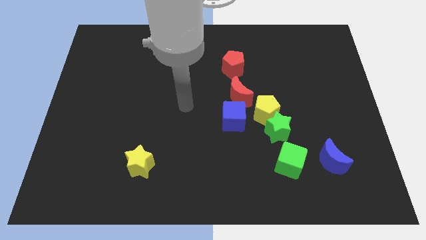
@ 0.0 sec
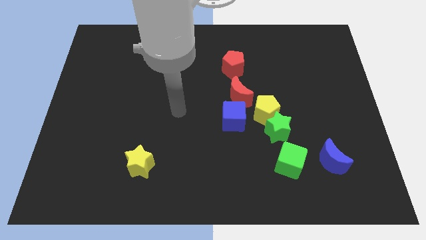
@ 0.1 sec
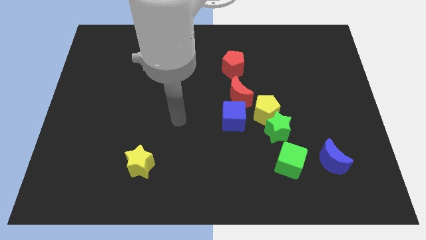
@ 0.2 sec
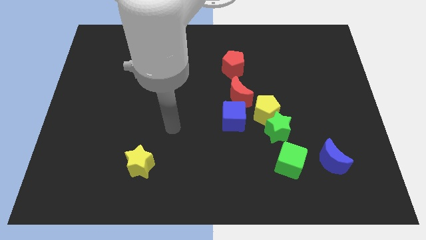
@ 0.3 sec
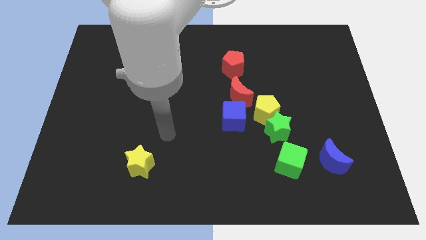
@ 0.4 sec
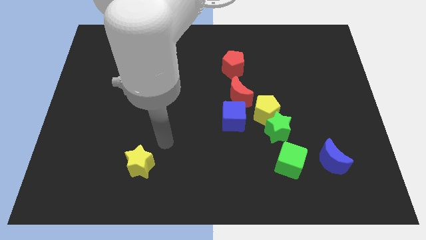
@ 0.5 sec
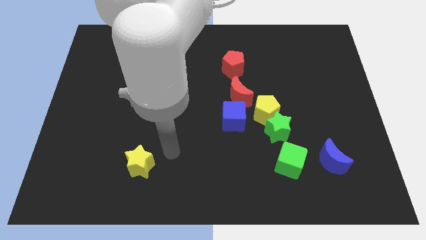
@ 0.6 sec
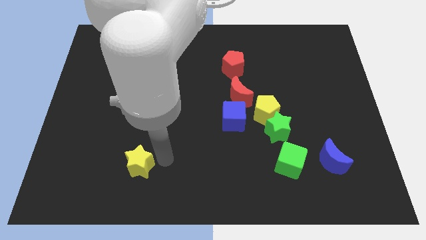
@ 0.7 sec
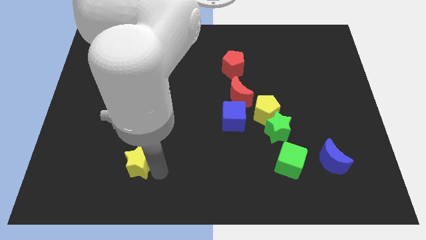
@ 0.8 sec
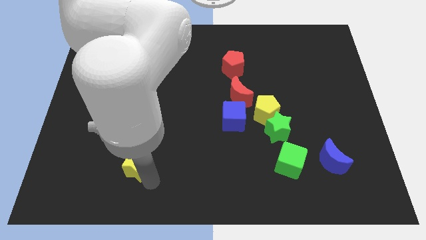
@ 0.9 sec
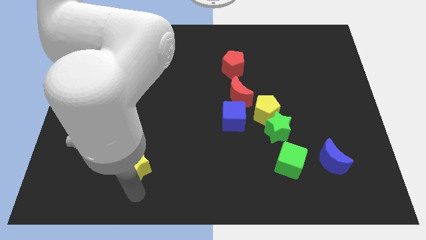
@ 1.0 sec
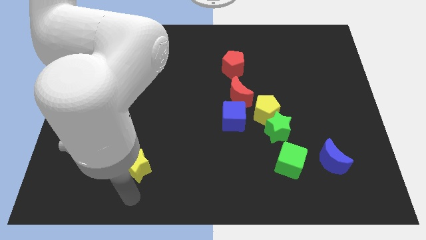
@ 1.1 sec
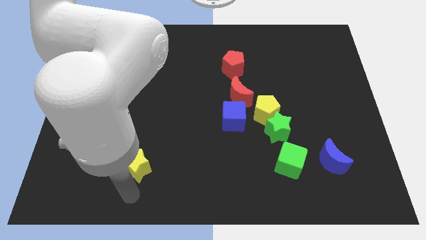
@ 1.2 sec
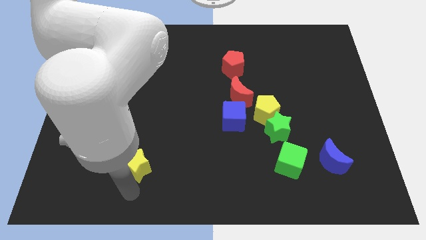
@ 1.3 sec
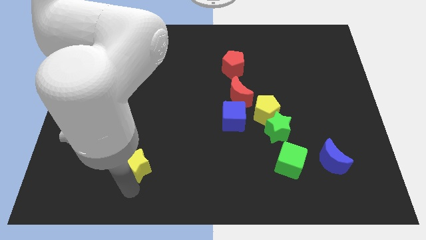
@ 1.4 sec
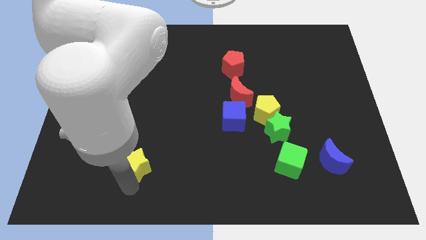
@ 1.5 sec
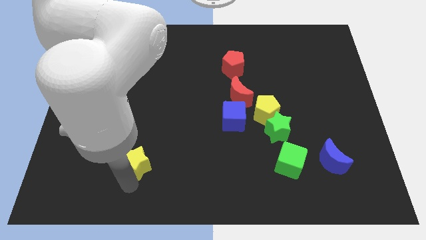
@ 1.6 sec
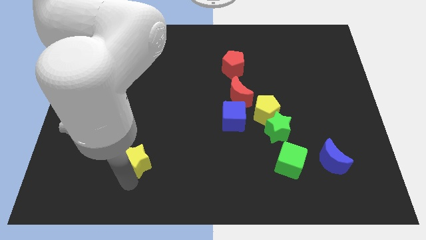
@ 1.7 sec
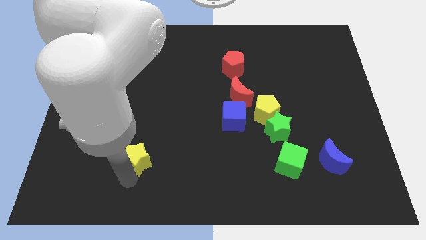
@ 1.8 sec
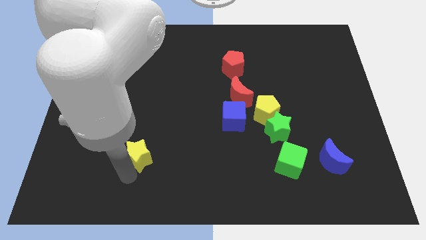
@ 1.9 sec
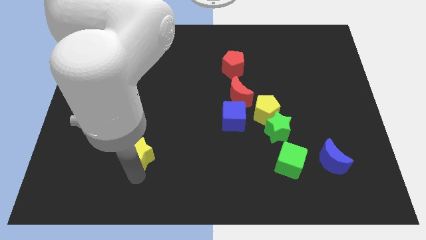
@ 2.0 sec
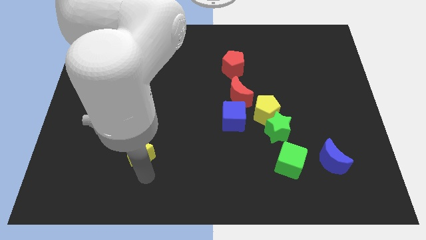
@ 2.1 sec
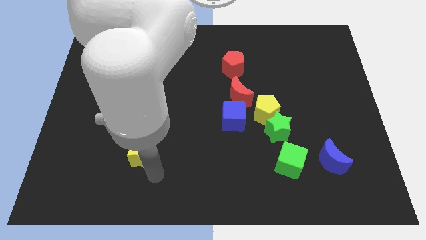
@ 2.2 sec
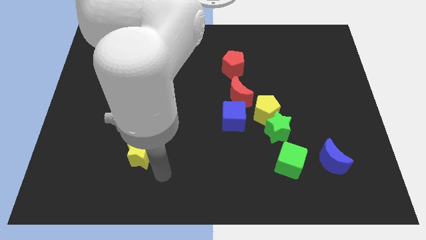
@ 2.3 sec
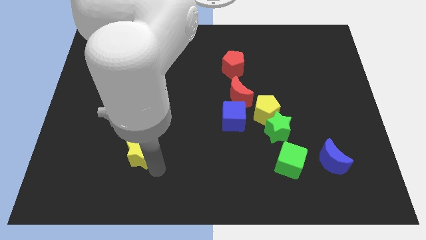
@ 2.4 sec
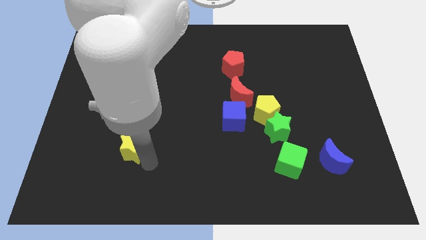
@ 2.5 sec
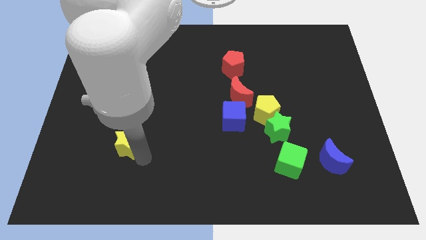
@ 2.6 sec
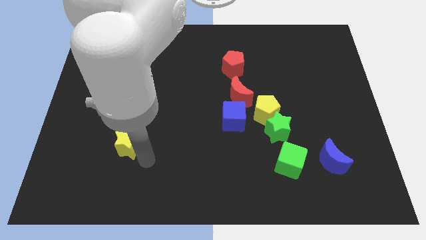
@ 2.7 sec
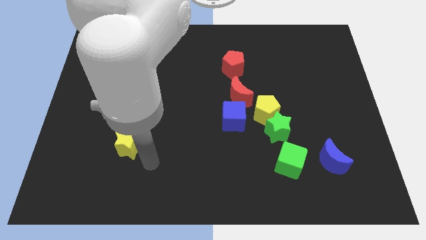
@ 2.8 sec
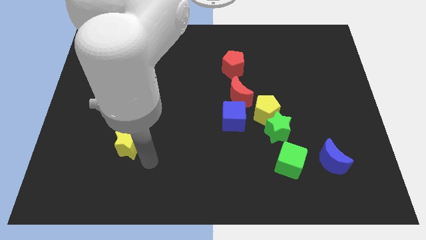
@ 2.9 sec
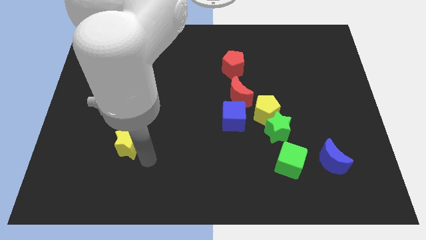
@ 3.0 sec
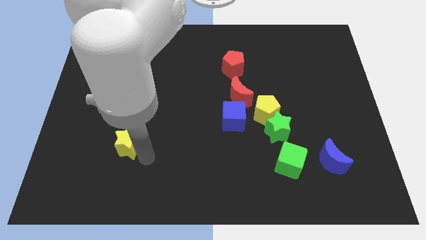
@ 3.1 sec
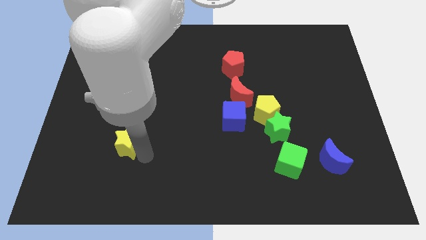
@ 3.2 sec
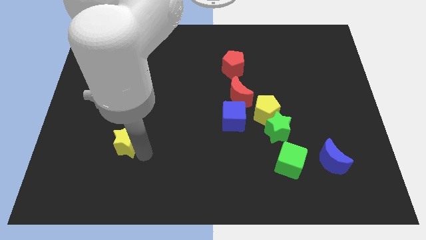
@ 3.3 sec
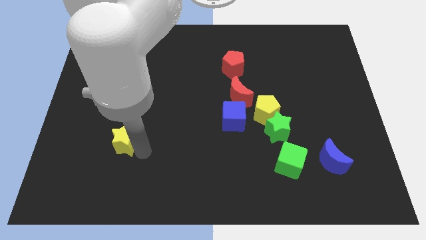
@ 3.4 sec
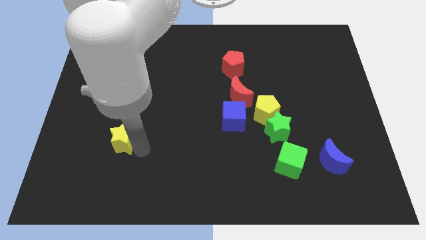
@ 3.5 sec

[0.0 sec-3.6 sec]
slide the yellow star a bit upwards and left diagonally

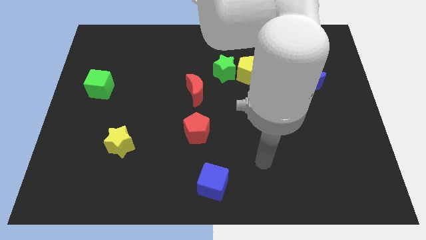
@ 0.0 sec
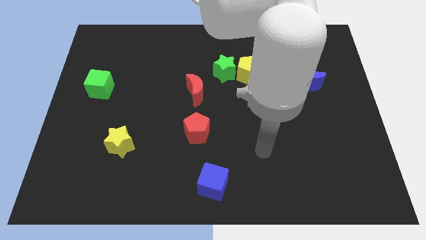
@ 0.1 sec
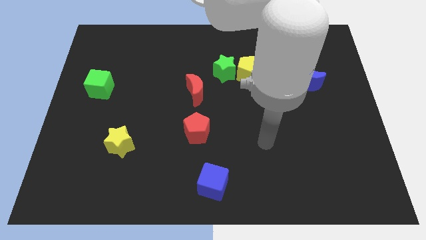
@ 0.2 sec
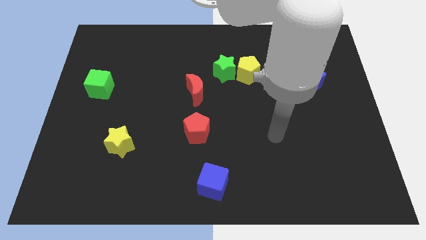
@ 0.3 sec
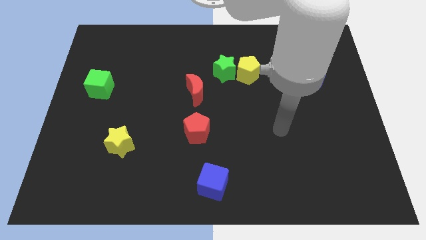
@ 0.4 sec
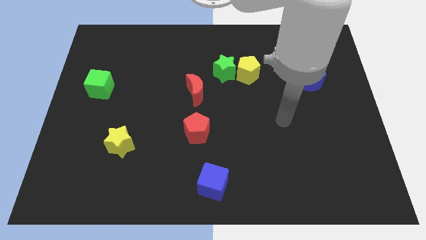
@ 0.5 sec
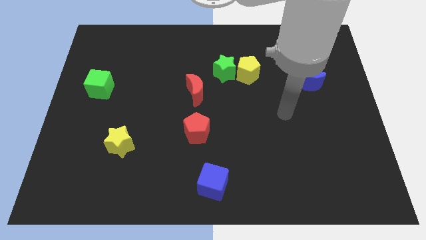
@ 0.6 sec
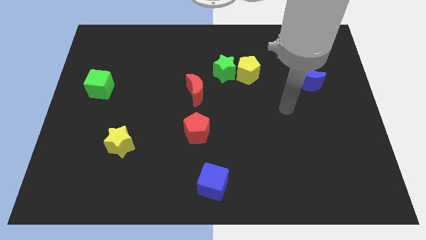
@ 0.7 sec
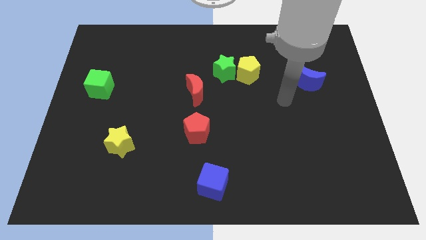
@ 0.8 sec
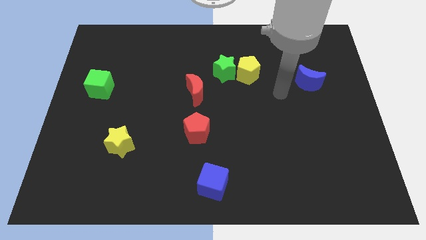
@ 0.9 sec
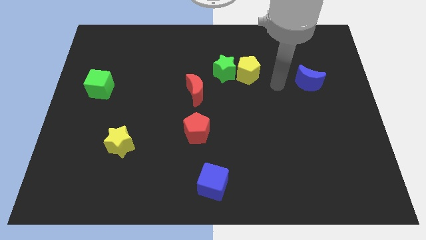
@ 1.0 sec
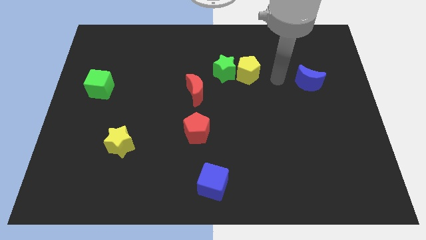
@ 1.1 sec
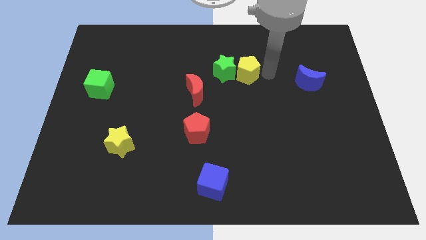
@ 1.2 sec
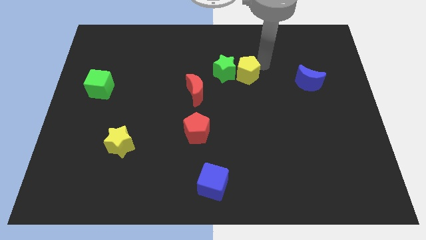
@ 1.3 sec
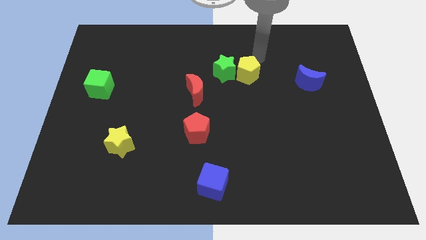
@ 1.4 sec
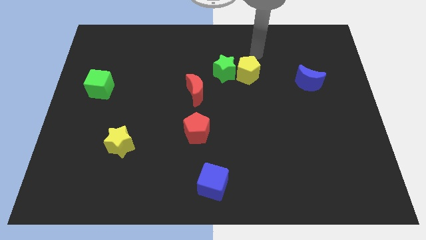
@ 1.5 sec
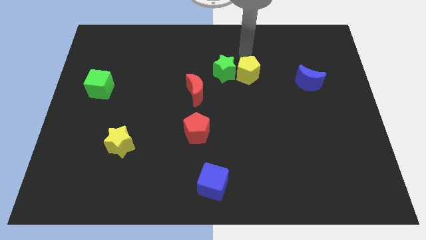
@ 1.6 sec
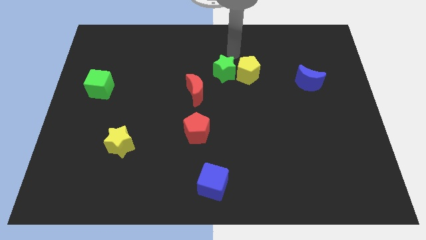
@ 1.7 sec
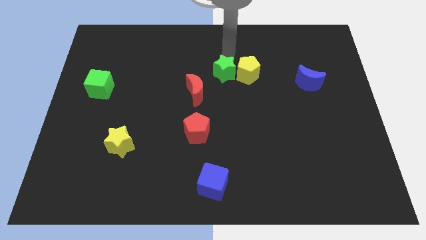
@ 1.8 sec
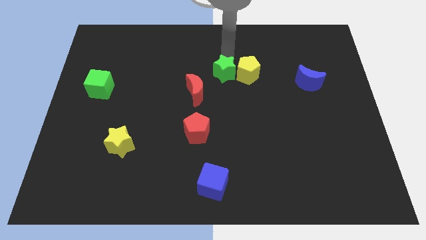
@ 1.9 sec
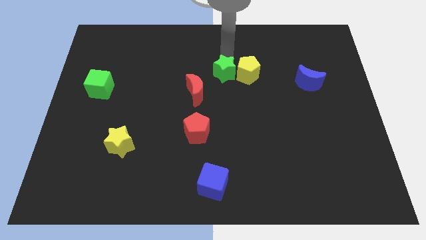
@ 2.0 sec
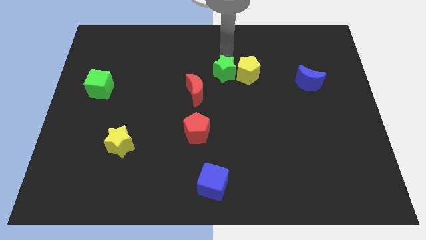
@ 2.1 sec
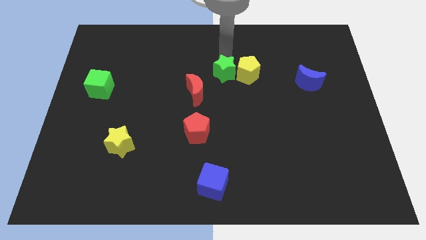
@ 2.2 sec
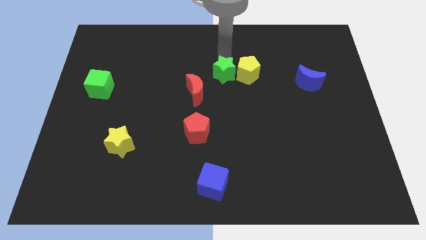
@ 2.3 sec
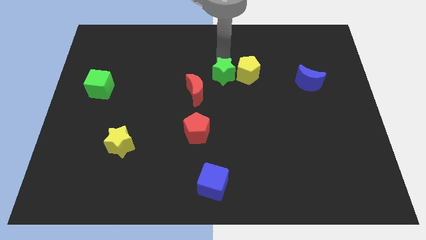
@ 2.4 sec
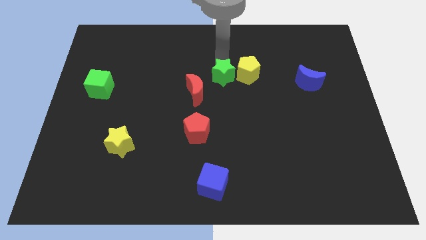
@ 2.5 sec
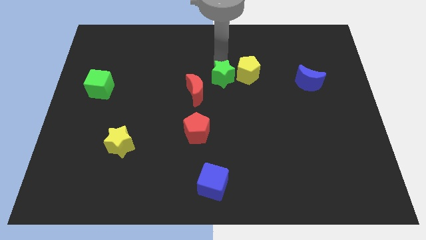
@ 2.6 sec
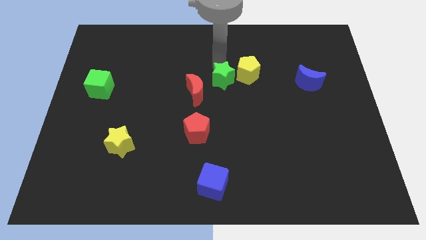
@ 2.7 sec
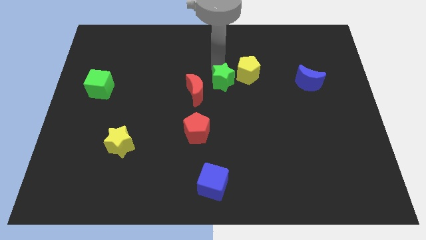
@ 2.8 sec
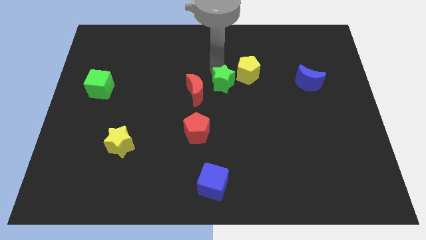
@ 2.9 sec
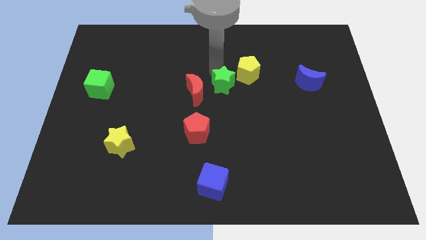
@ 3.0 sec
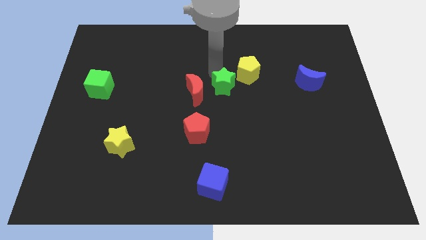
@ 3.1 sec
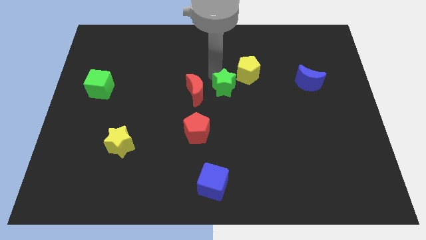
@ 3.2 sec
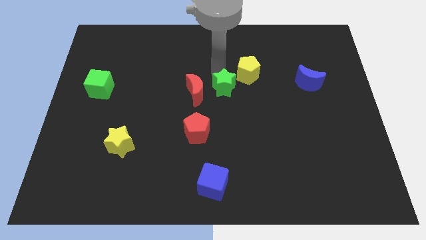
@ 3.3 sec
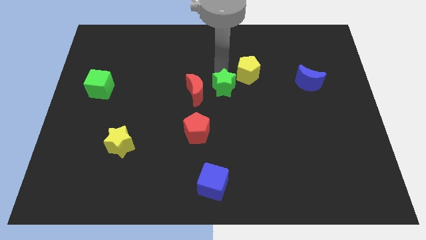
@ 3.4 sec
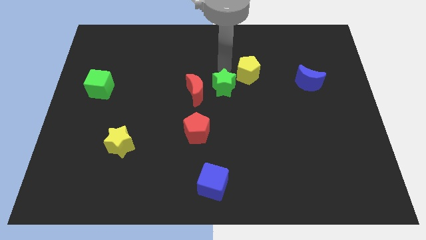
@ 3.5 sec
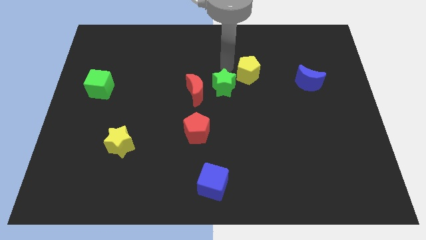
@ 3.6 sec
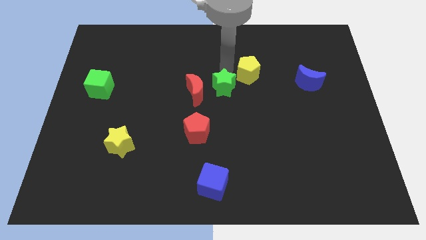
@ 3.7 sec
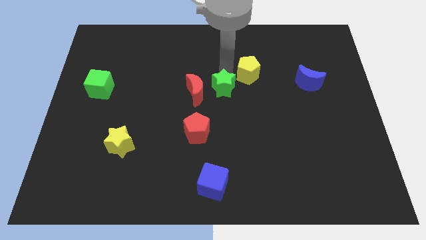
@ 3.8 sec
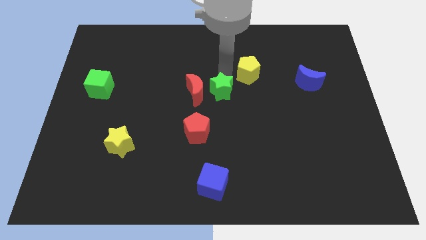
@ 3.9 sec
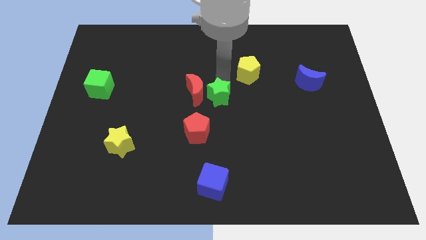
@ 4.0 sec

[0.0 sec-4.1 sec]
slightly slide the green star down

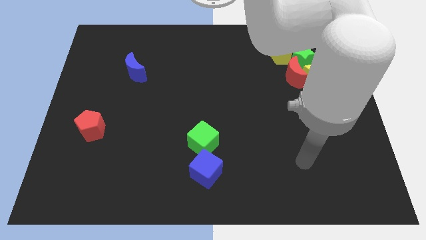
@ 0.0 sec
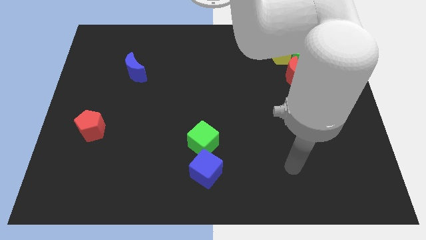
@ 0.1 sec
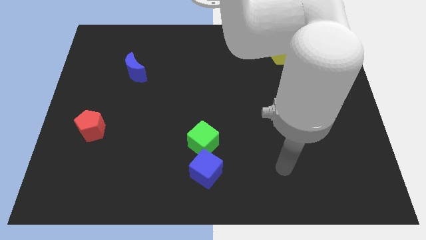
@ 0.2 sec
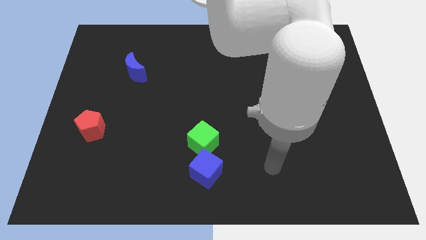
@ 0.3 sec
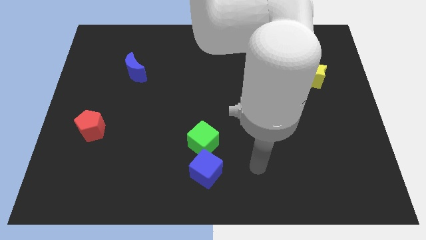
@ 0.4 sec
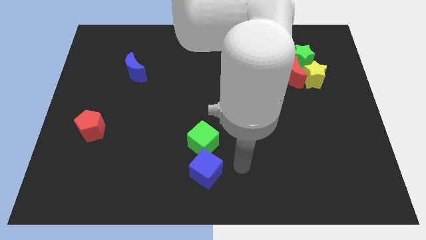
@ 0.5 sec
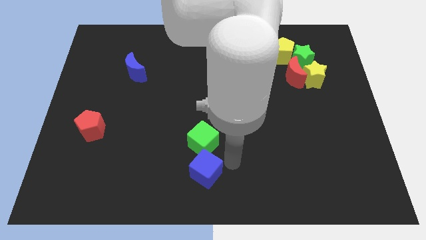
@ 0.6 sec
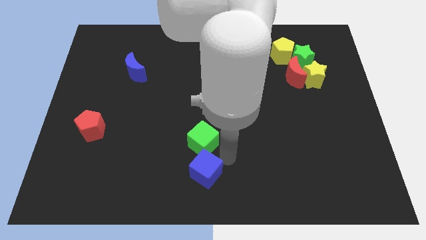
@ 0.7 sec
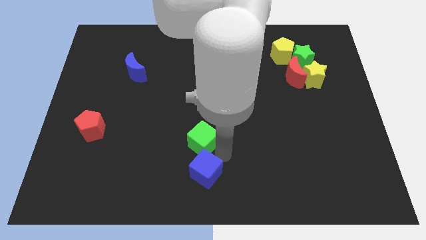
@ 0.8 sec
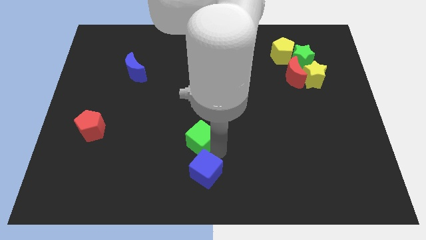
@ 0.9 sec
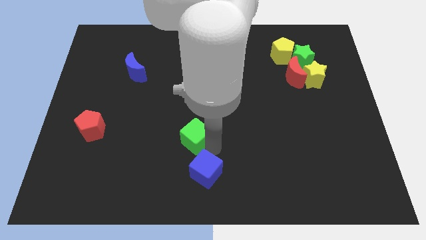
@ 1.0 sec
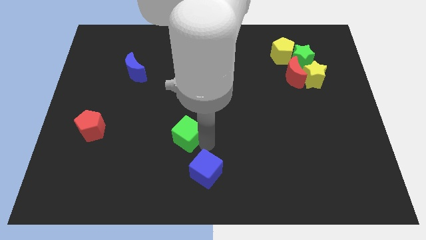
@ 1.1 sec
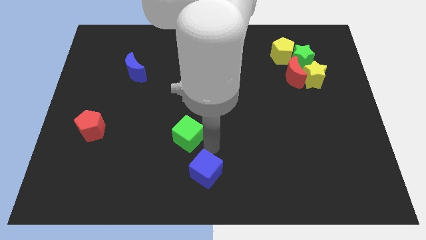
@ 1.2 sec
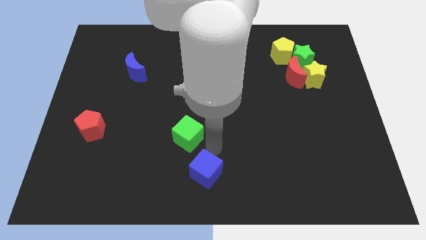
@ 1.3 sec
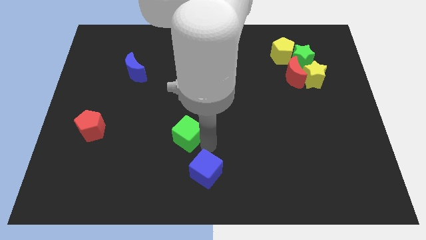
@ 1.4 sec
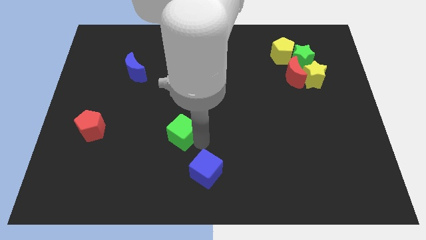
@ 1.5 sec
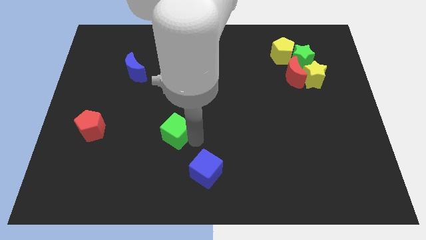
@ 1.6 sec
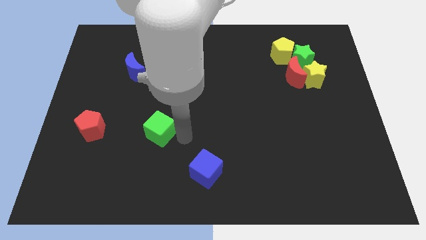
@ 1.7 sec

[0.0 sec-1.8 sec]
move the green cube diagonally up and left a little bit
